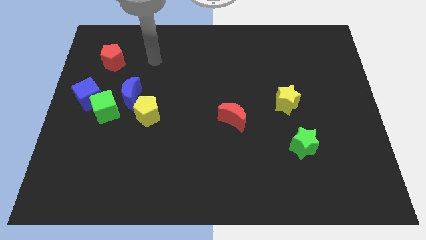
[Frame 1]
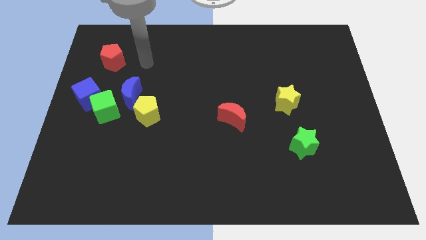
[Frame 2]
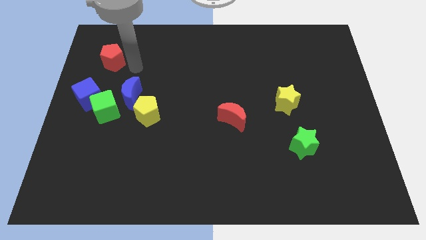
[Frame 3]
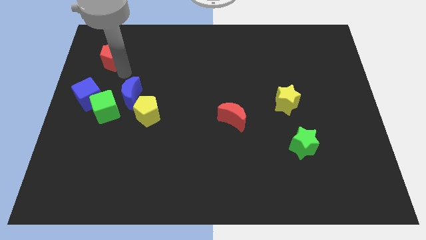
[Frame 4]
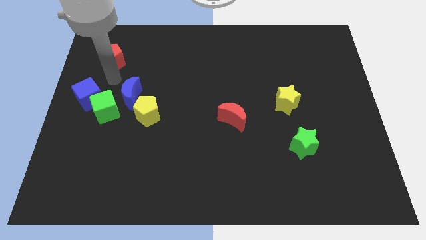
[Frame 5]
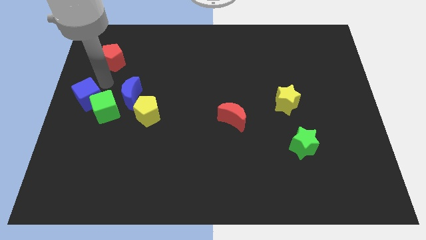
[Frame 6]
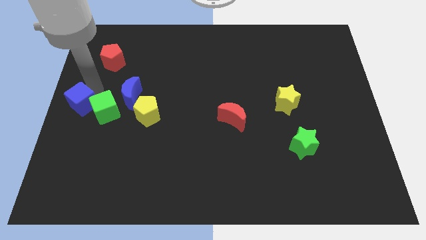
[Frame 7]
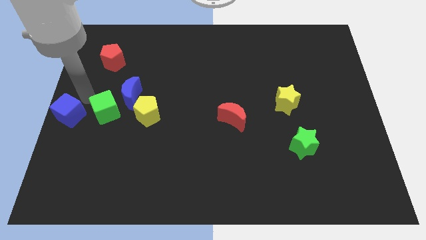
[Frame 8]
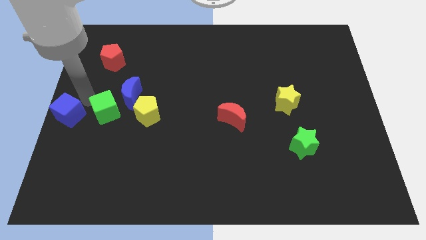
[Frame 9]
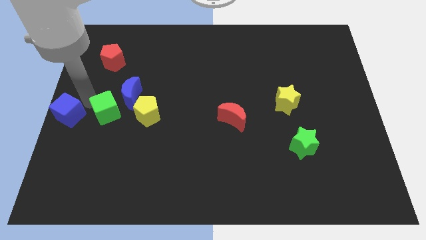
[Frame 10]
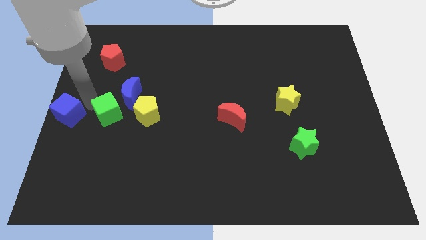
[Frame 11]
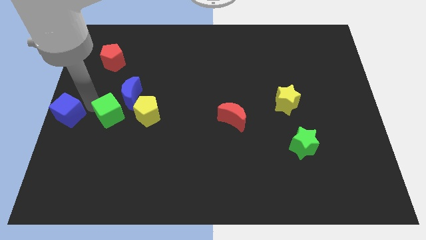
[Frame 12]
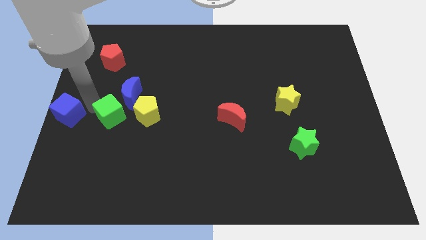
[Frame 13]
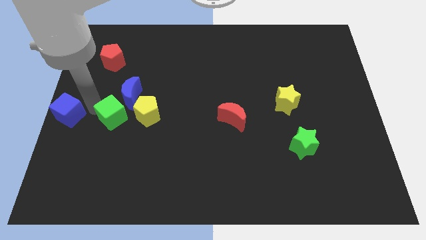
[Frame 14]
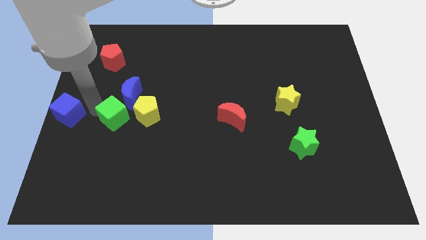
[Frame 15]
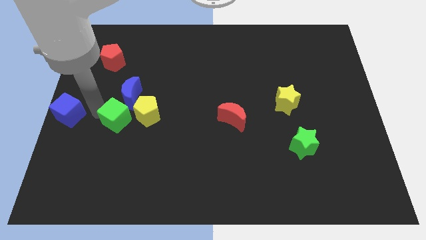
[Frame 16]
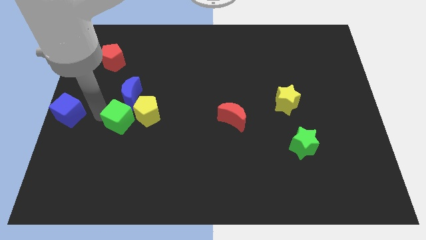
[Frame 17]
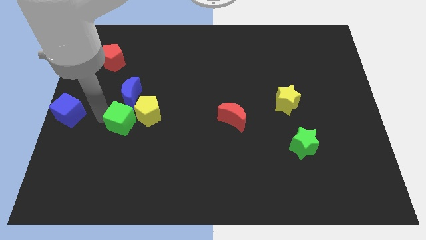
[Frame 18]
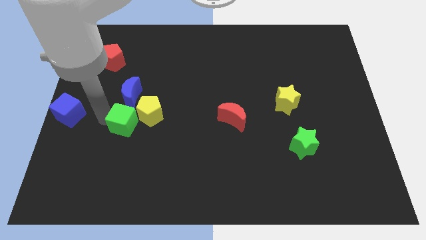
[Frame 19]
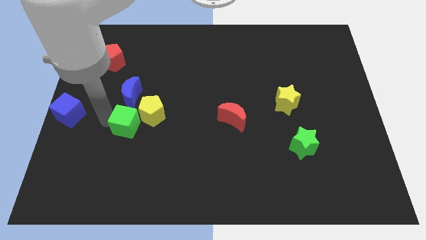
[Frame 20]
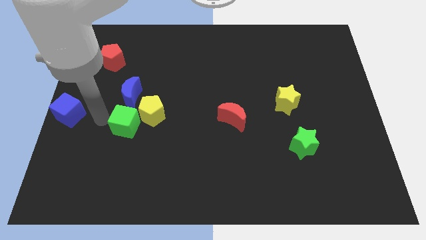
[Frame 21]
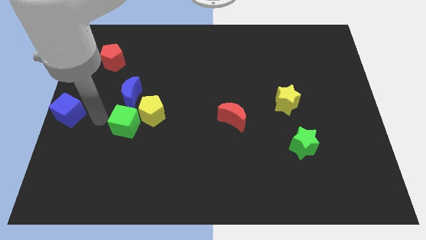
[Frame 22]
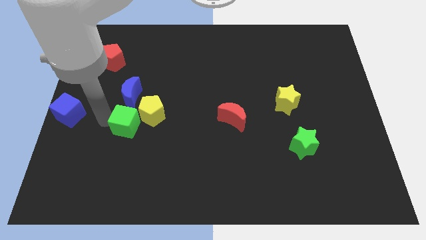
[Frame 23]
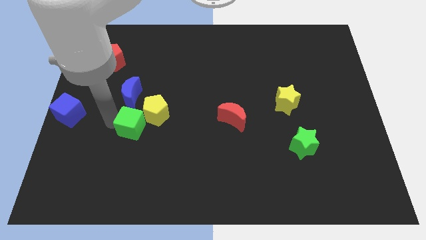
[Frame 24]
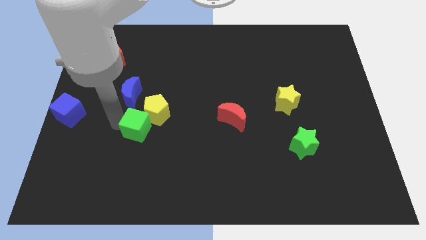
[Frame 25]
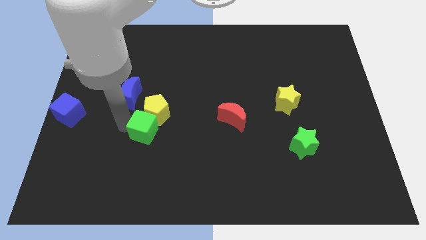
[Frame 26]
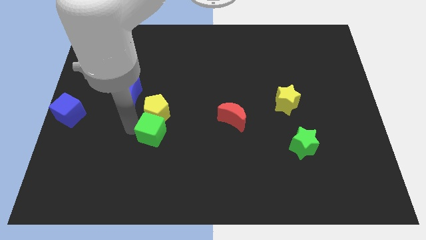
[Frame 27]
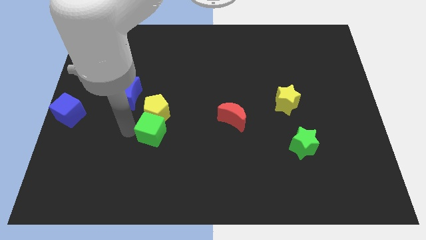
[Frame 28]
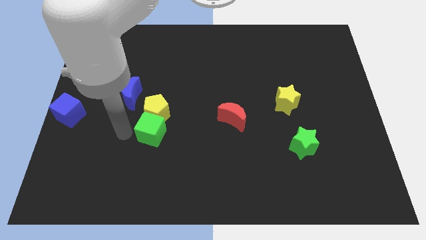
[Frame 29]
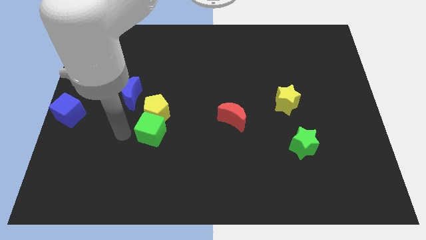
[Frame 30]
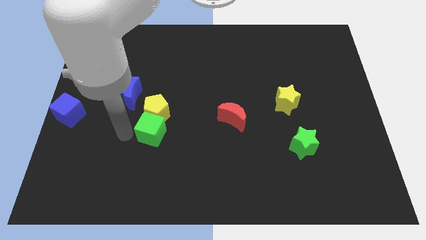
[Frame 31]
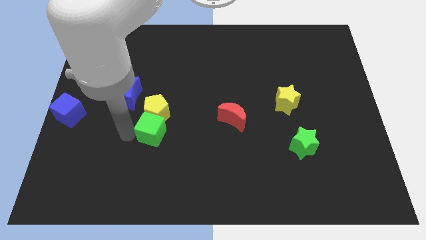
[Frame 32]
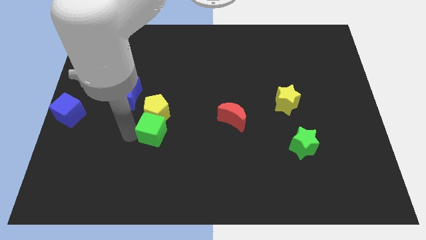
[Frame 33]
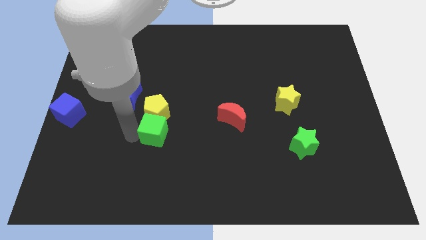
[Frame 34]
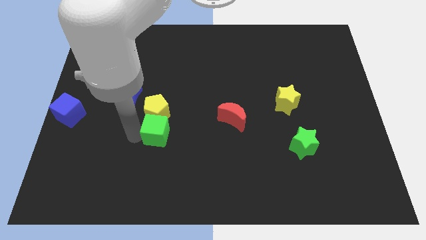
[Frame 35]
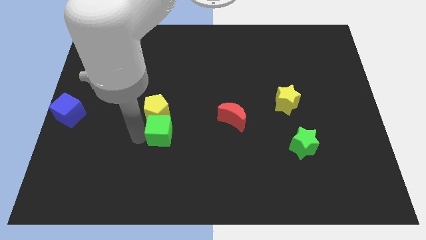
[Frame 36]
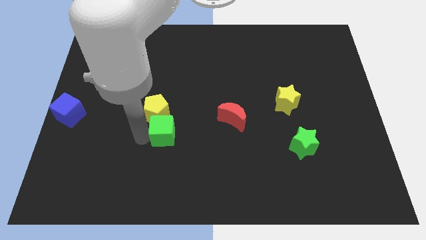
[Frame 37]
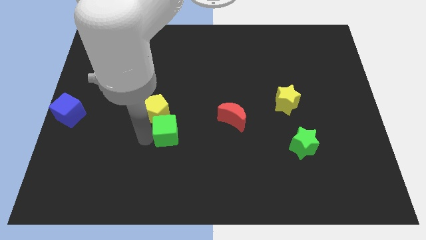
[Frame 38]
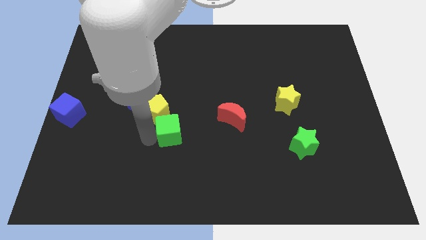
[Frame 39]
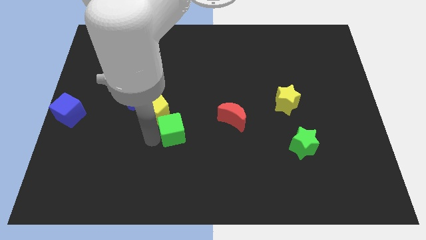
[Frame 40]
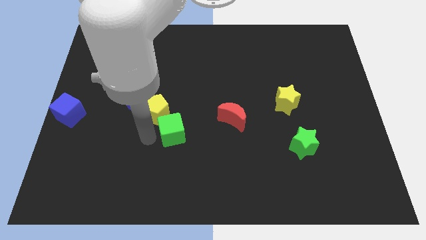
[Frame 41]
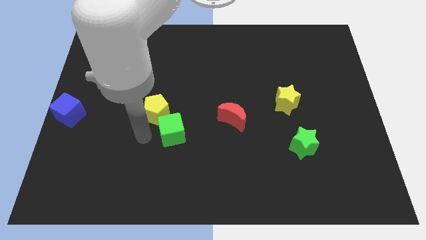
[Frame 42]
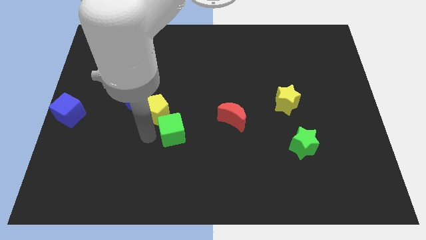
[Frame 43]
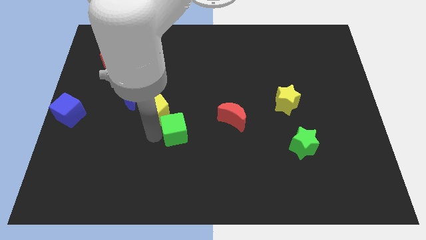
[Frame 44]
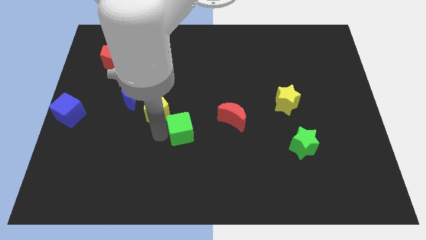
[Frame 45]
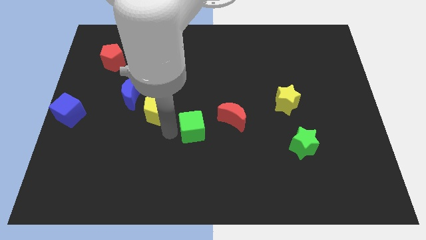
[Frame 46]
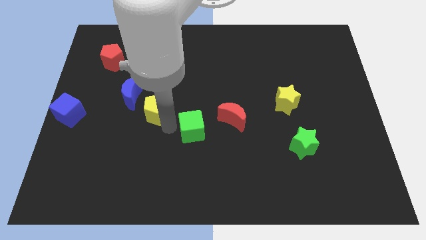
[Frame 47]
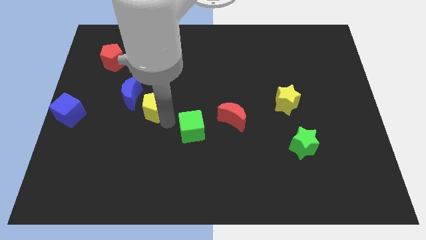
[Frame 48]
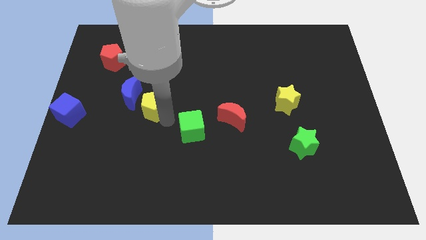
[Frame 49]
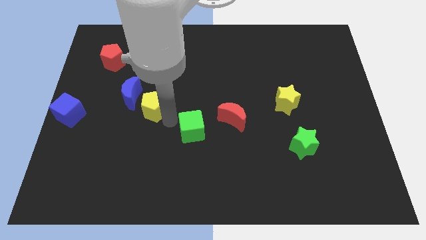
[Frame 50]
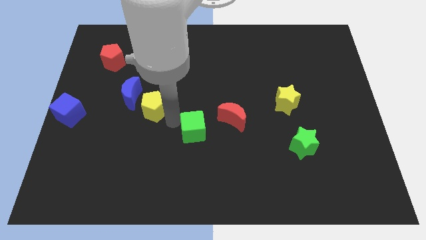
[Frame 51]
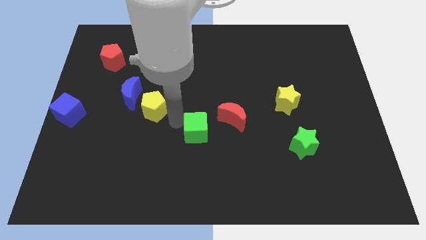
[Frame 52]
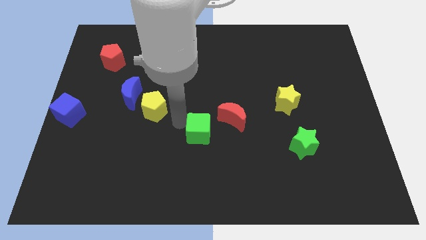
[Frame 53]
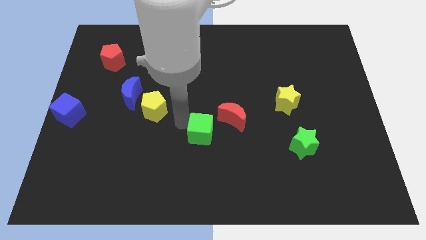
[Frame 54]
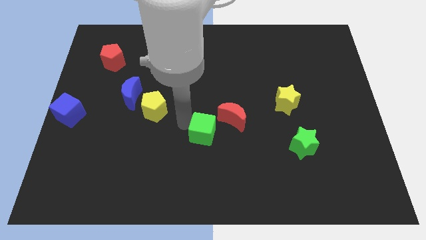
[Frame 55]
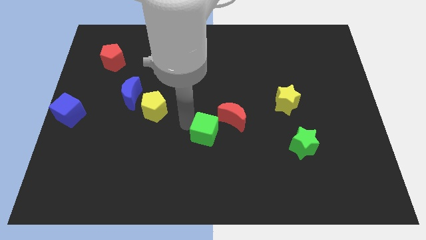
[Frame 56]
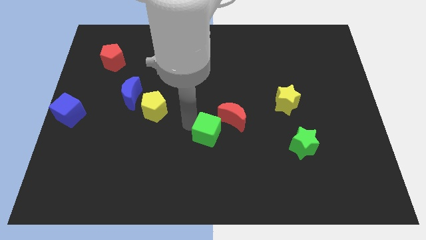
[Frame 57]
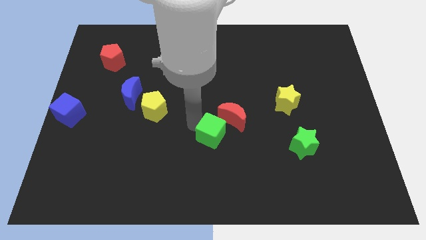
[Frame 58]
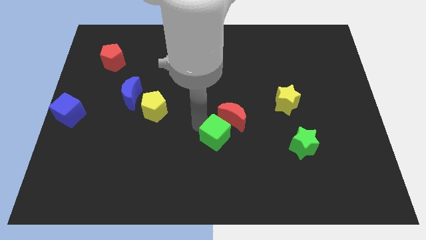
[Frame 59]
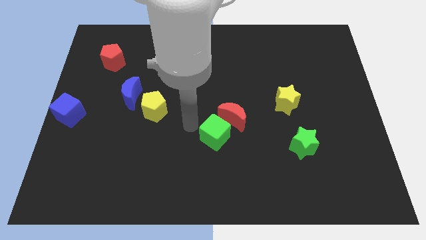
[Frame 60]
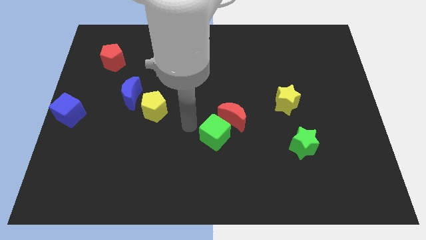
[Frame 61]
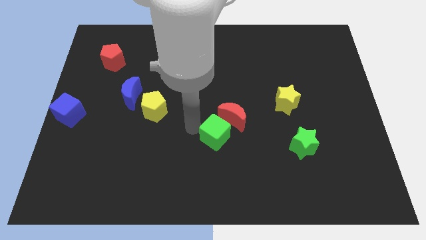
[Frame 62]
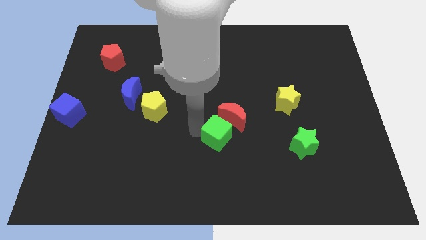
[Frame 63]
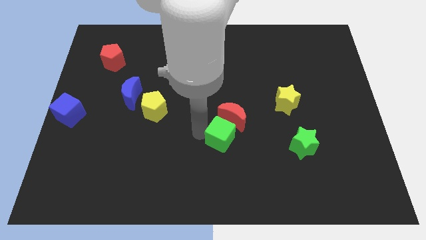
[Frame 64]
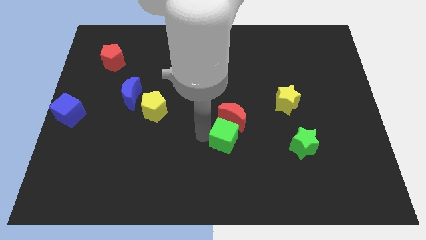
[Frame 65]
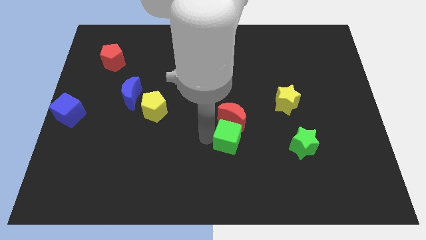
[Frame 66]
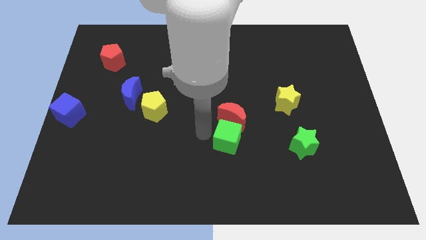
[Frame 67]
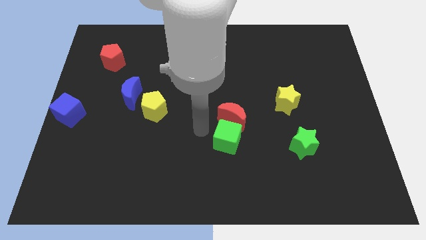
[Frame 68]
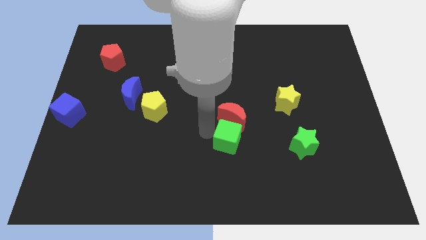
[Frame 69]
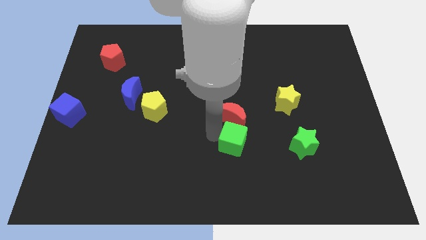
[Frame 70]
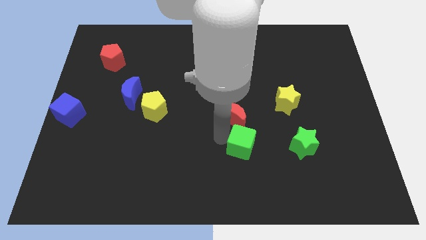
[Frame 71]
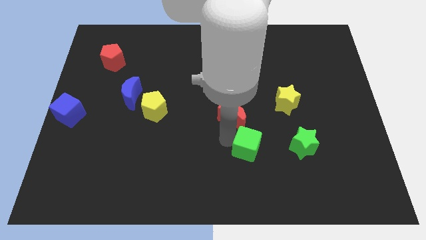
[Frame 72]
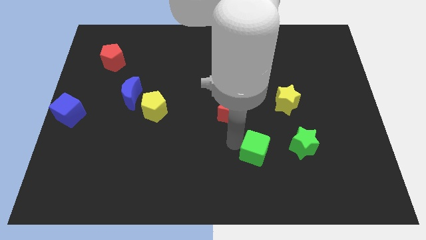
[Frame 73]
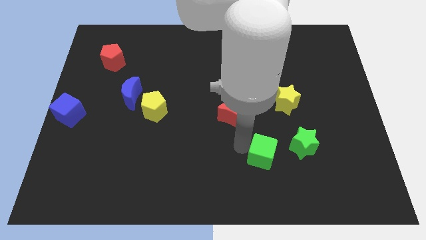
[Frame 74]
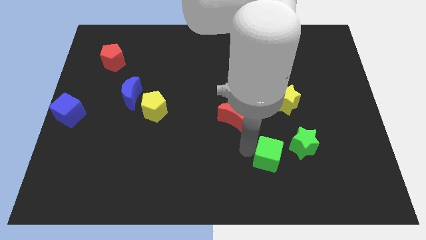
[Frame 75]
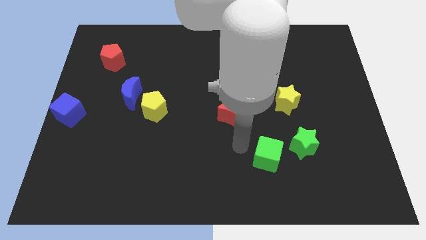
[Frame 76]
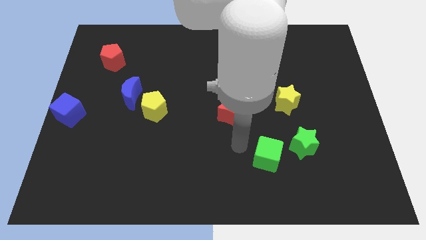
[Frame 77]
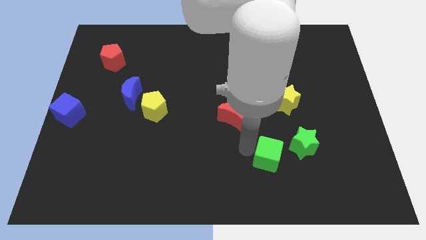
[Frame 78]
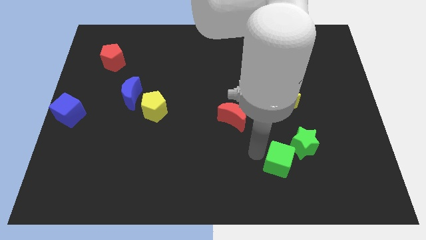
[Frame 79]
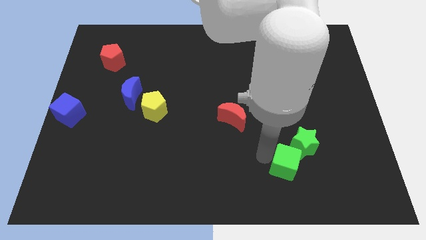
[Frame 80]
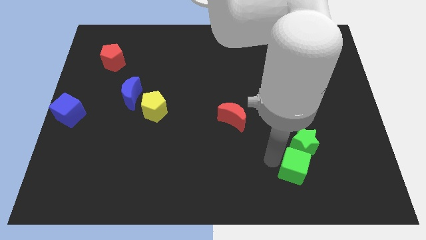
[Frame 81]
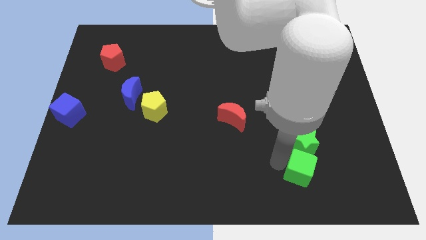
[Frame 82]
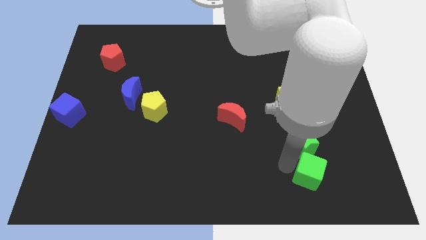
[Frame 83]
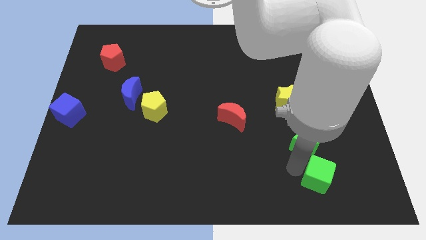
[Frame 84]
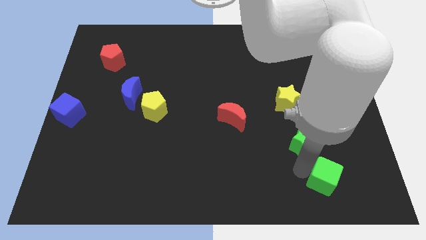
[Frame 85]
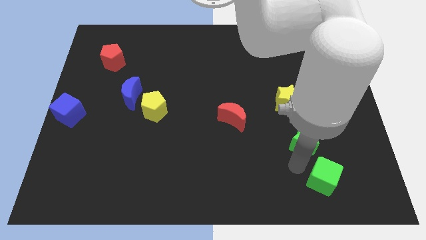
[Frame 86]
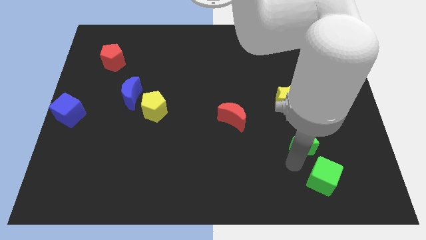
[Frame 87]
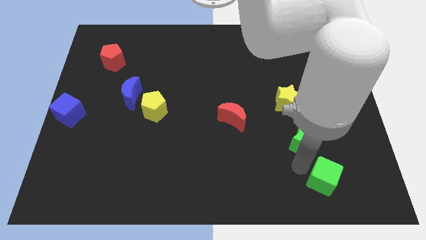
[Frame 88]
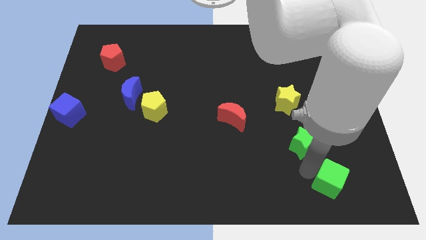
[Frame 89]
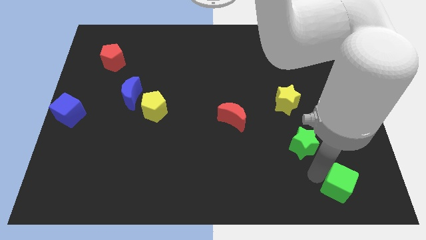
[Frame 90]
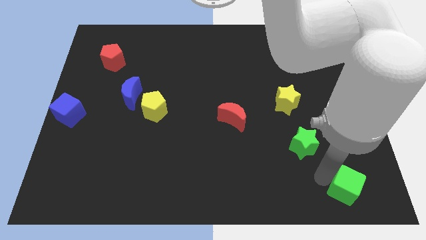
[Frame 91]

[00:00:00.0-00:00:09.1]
put the green cube to the bottom right
